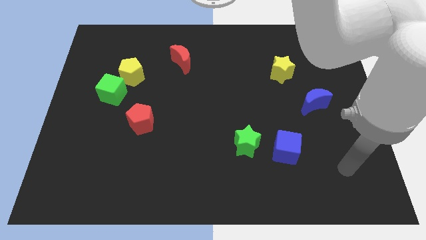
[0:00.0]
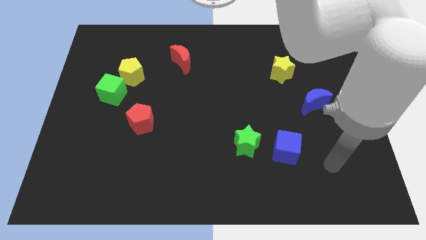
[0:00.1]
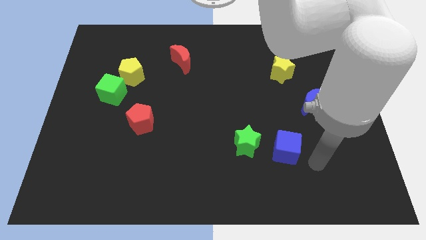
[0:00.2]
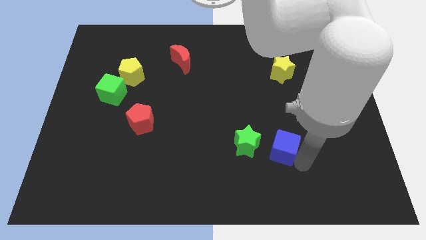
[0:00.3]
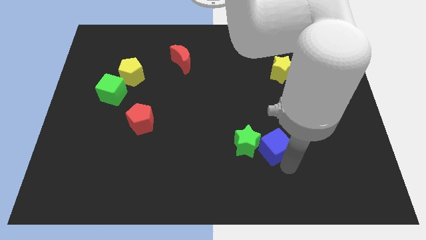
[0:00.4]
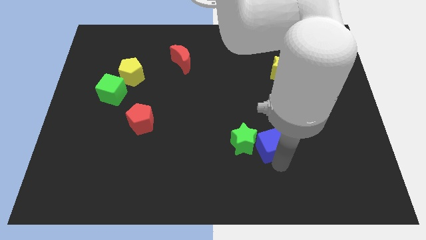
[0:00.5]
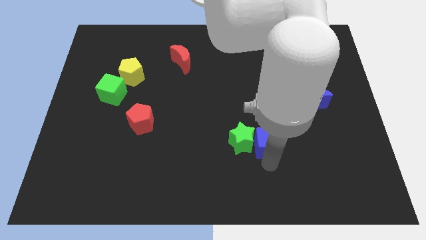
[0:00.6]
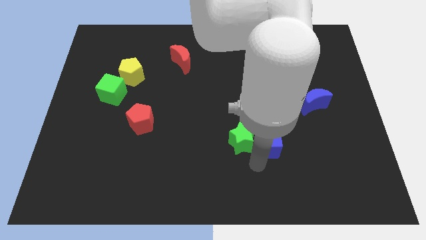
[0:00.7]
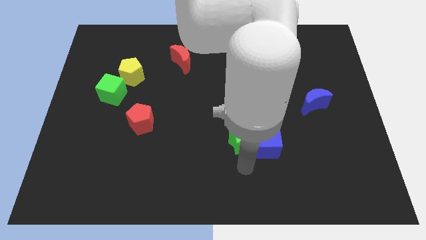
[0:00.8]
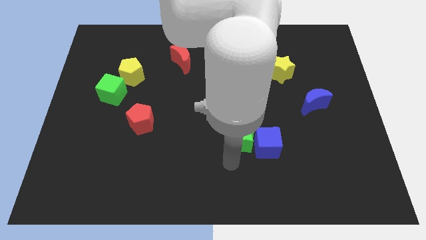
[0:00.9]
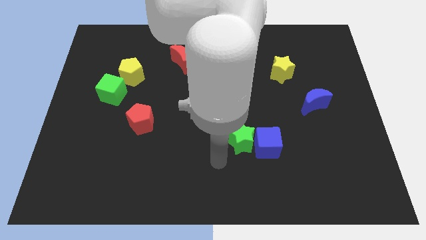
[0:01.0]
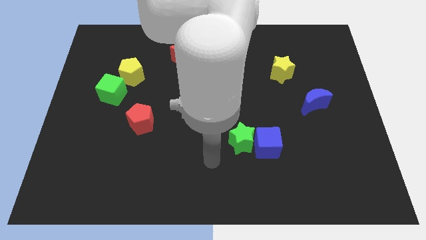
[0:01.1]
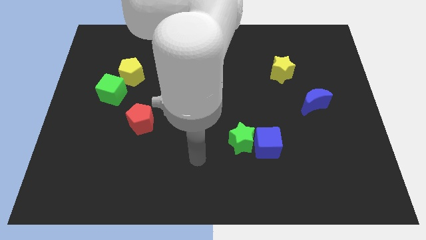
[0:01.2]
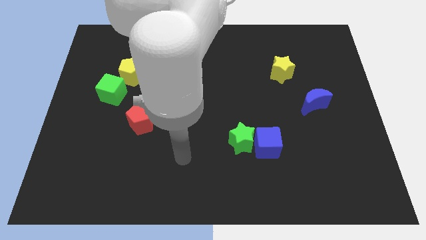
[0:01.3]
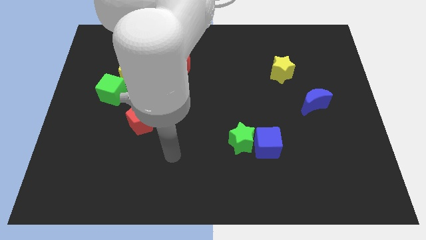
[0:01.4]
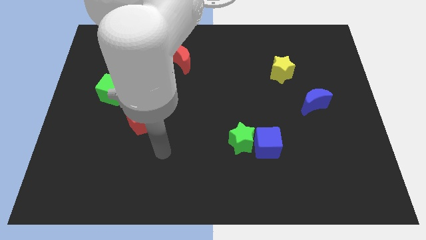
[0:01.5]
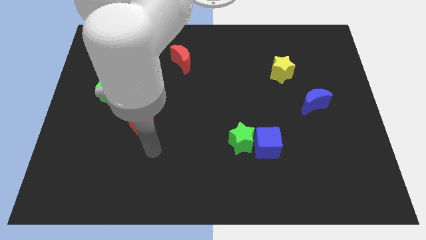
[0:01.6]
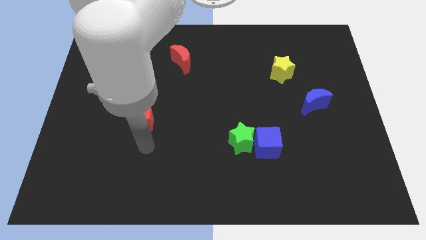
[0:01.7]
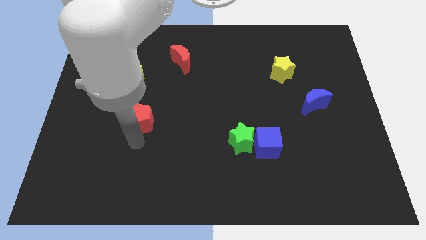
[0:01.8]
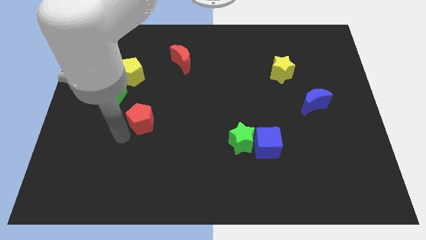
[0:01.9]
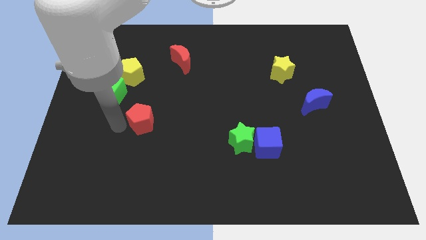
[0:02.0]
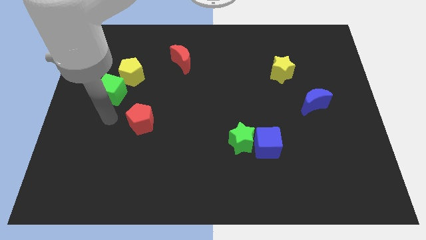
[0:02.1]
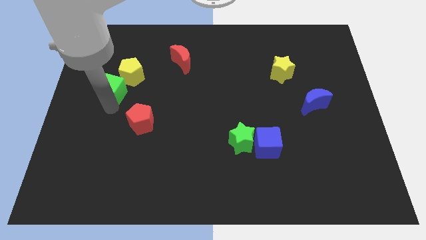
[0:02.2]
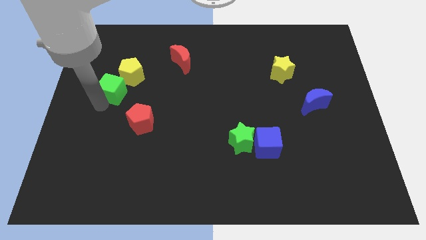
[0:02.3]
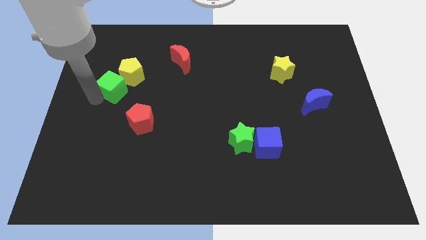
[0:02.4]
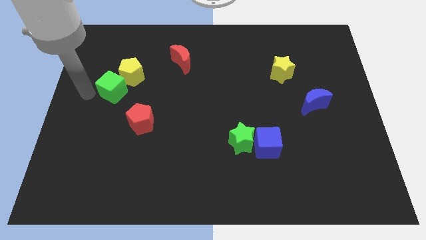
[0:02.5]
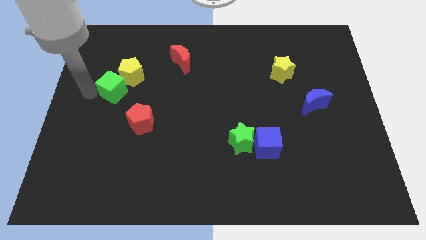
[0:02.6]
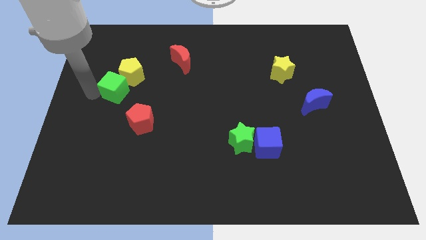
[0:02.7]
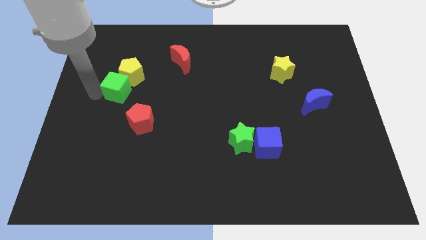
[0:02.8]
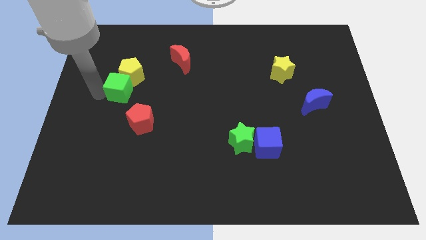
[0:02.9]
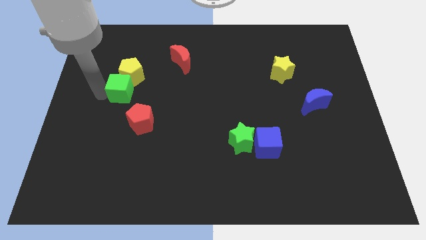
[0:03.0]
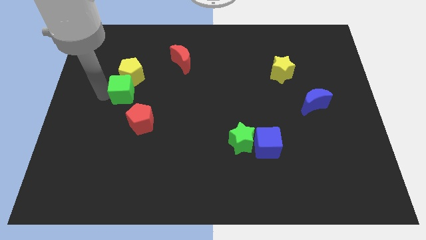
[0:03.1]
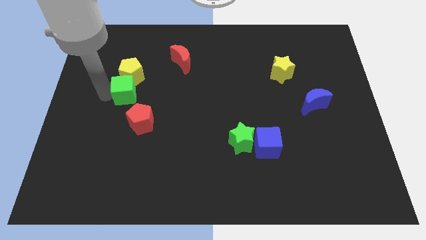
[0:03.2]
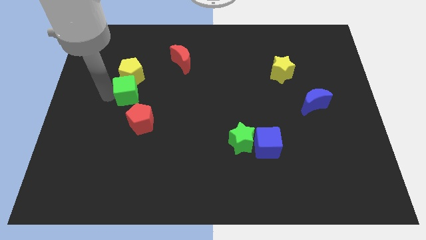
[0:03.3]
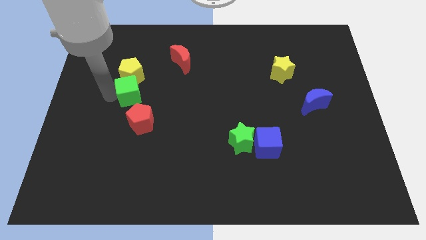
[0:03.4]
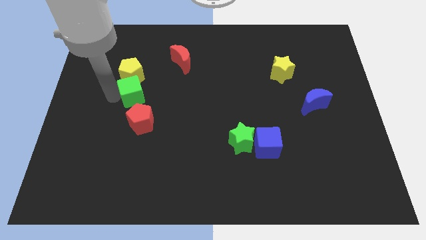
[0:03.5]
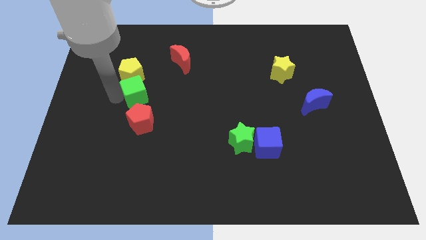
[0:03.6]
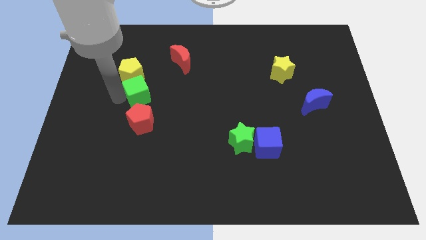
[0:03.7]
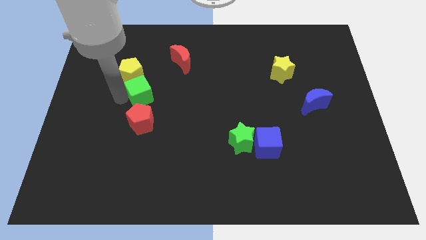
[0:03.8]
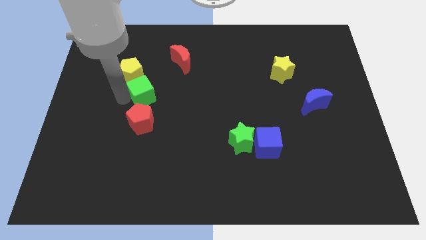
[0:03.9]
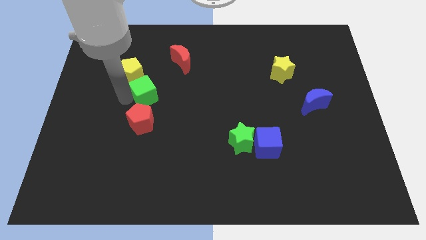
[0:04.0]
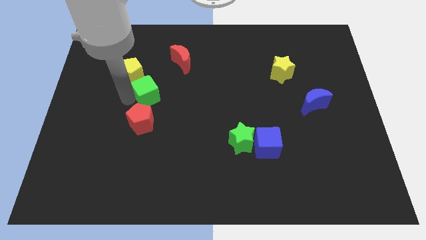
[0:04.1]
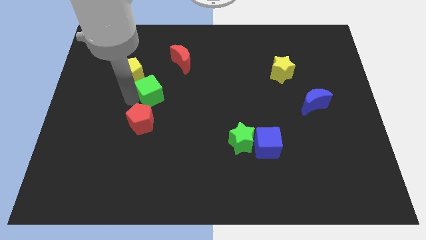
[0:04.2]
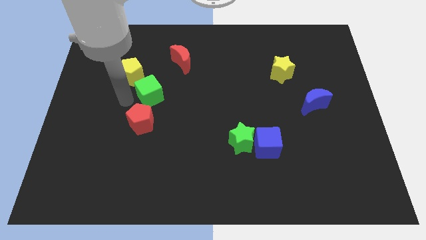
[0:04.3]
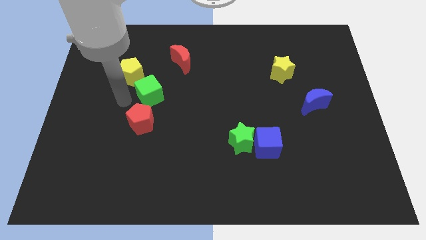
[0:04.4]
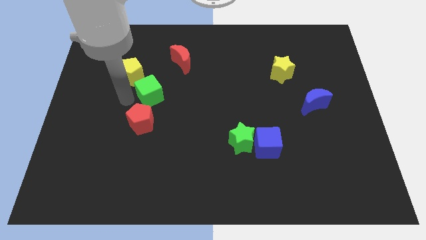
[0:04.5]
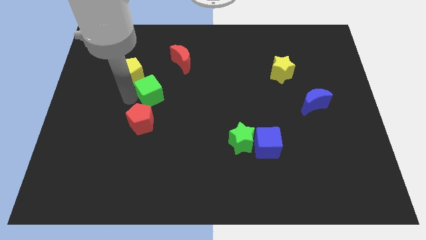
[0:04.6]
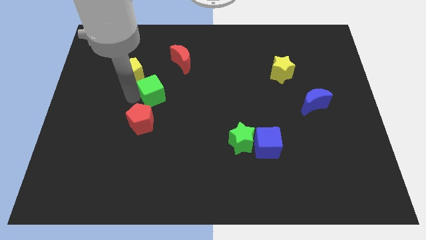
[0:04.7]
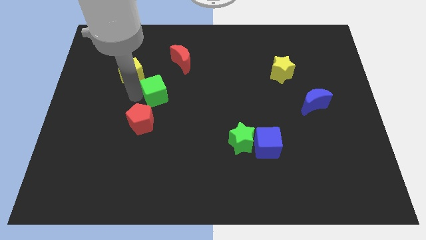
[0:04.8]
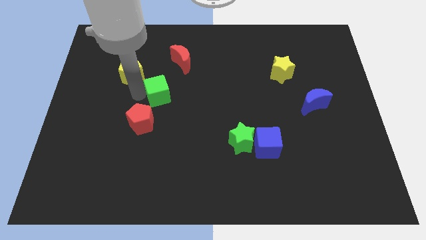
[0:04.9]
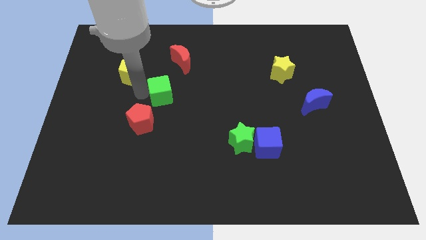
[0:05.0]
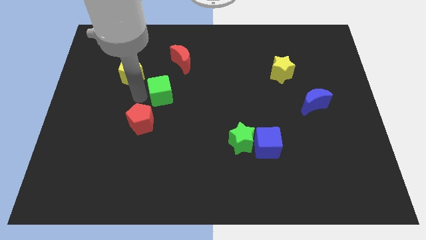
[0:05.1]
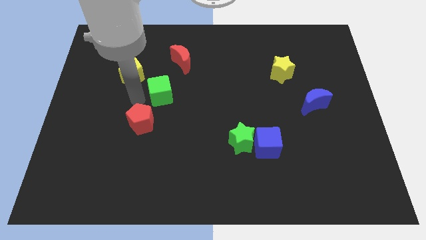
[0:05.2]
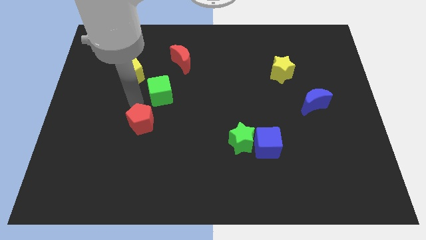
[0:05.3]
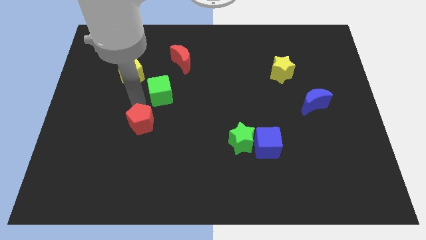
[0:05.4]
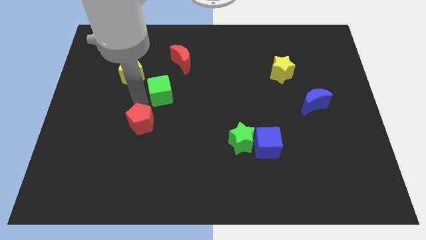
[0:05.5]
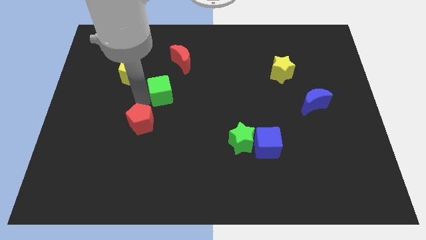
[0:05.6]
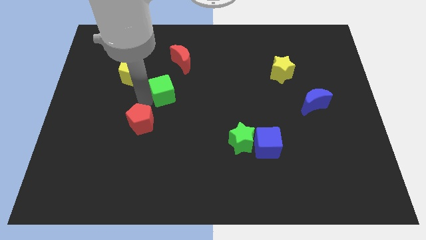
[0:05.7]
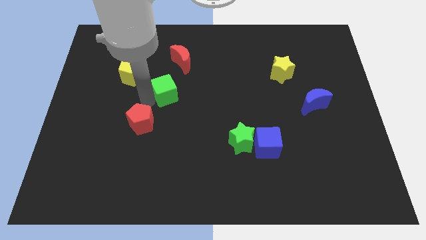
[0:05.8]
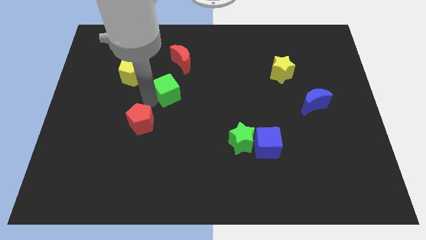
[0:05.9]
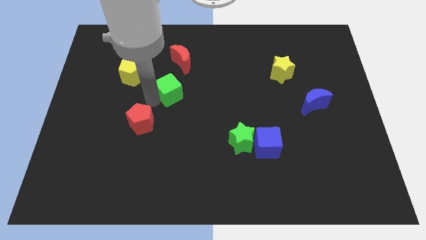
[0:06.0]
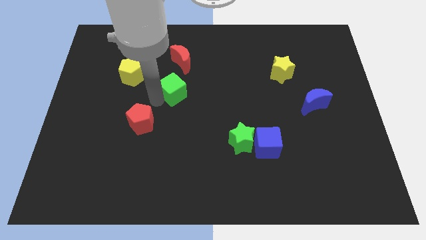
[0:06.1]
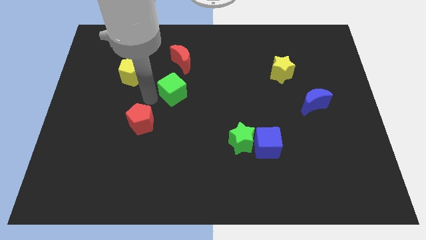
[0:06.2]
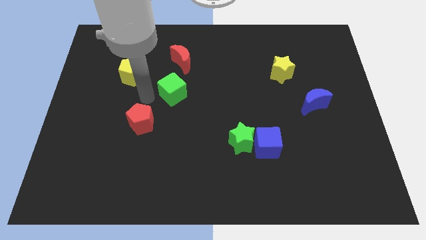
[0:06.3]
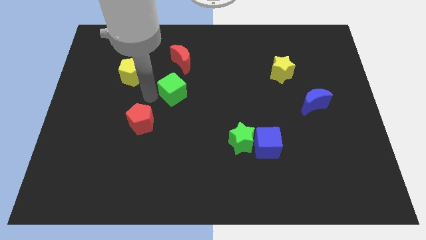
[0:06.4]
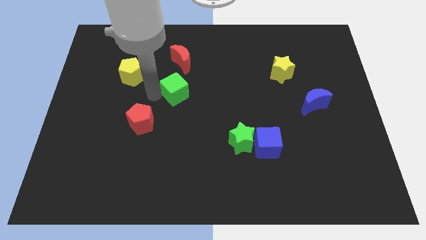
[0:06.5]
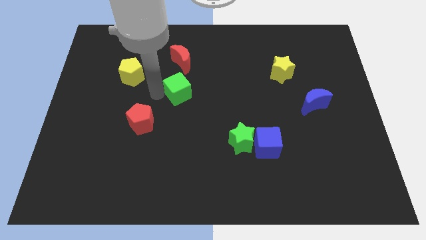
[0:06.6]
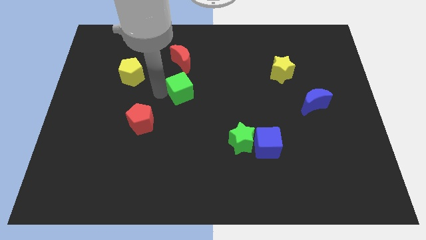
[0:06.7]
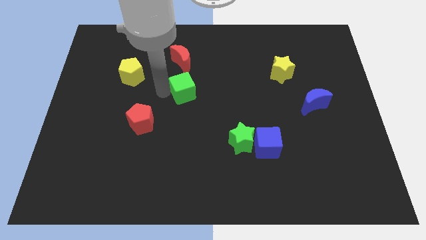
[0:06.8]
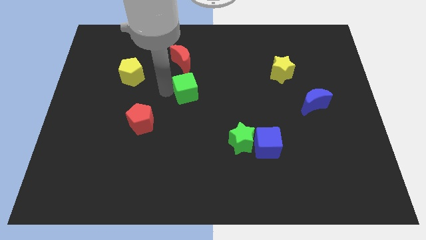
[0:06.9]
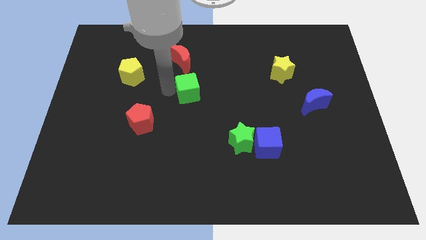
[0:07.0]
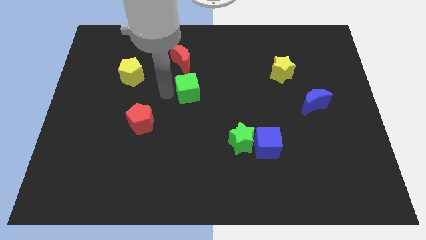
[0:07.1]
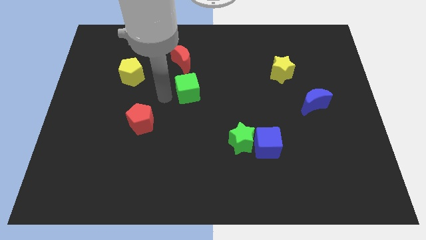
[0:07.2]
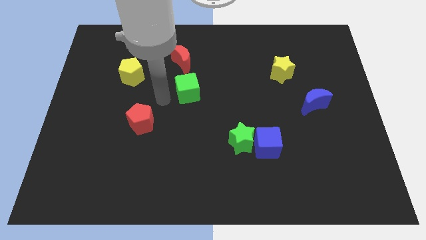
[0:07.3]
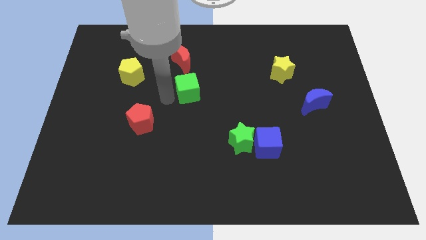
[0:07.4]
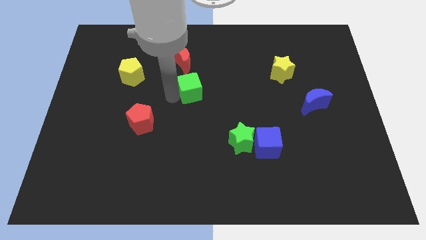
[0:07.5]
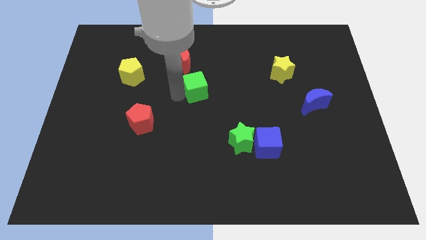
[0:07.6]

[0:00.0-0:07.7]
push the green cube right

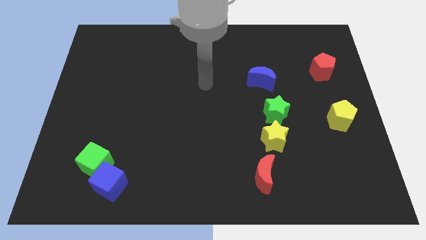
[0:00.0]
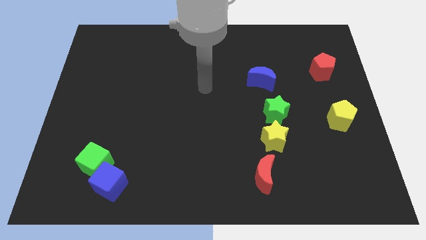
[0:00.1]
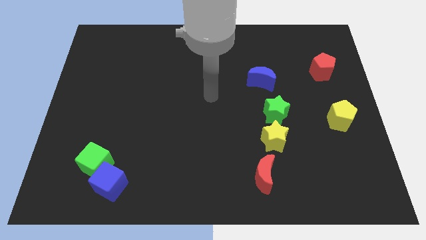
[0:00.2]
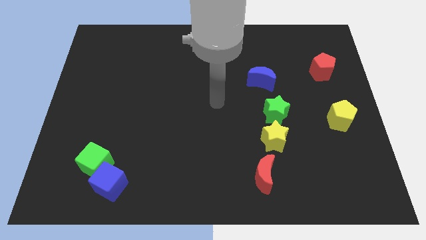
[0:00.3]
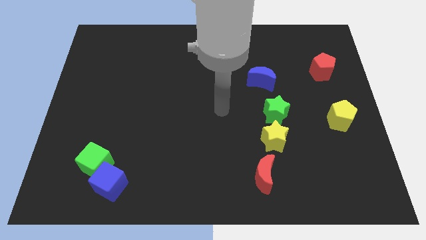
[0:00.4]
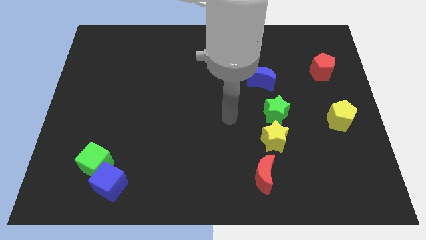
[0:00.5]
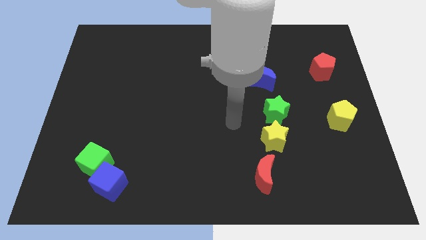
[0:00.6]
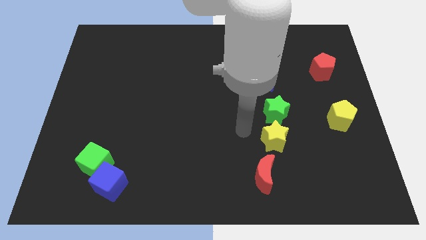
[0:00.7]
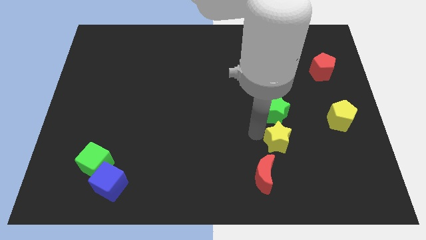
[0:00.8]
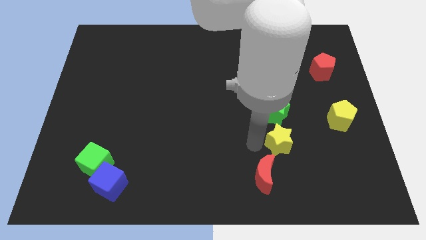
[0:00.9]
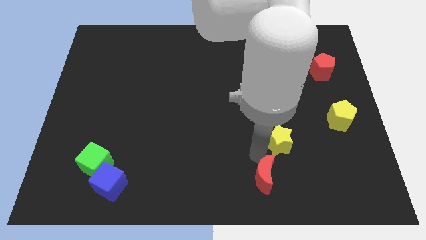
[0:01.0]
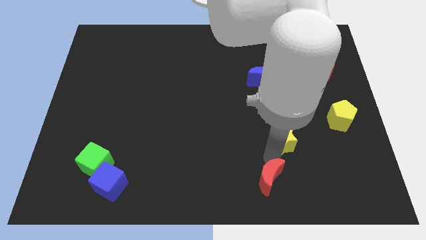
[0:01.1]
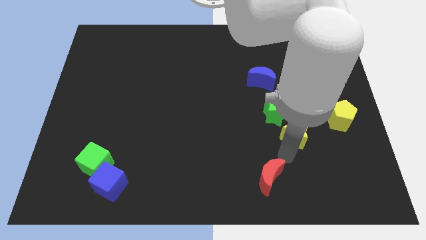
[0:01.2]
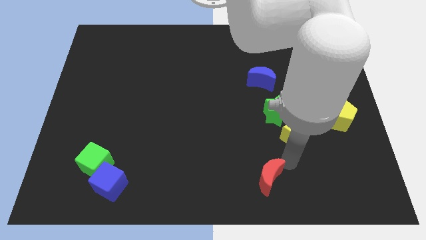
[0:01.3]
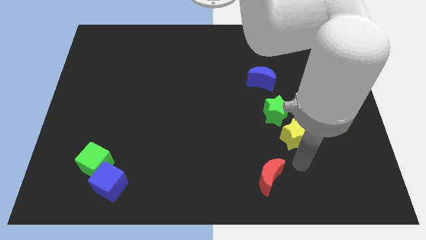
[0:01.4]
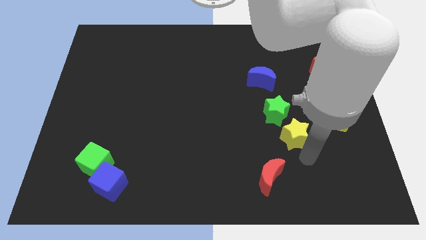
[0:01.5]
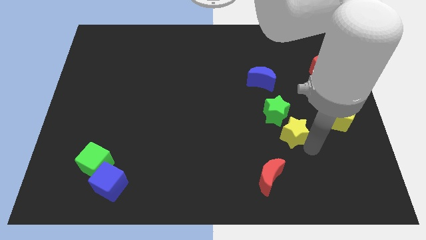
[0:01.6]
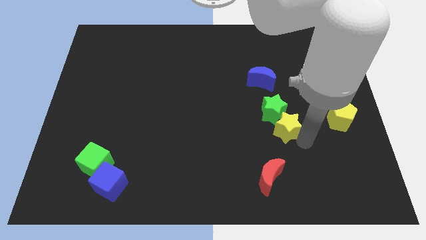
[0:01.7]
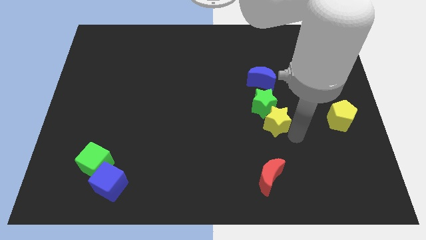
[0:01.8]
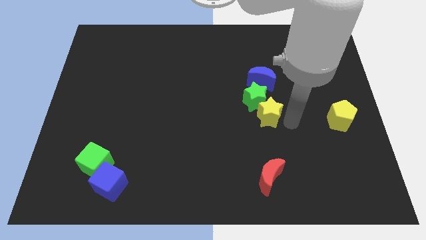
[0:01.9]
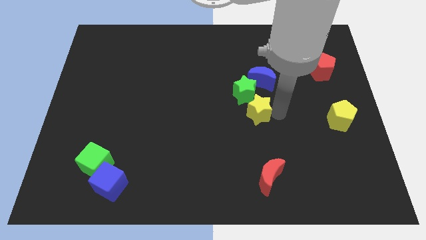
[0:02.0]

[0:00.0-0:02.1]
push the green star up and left somewhat
